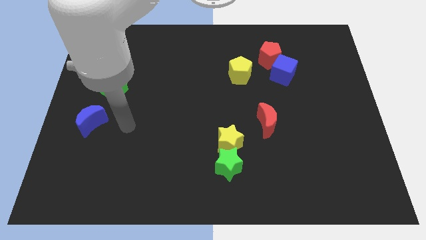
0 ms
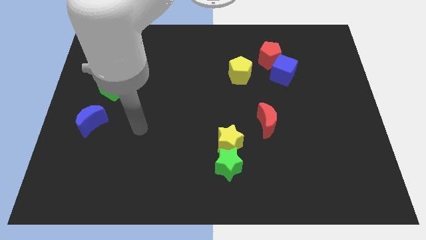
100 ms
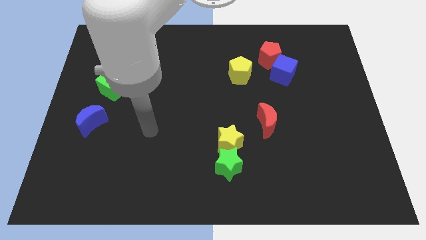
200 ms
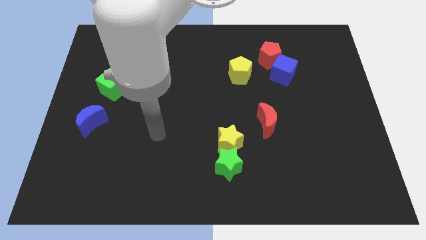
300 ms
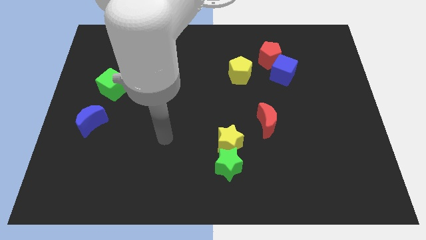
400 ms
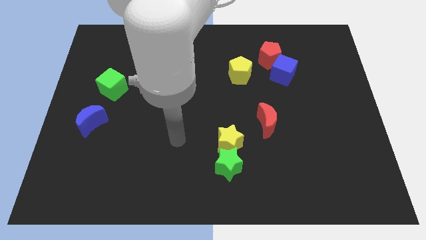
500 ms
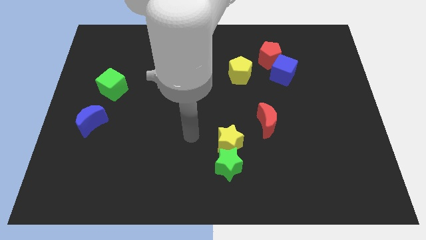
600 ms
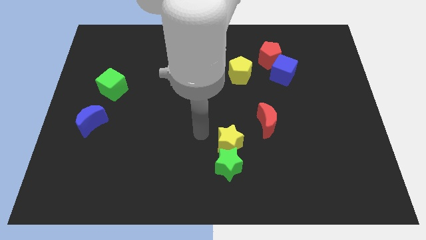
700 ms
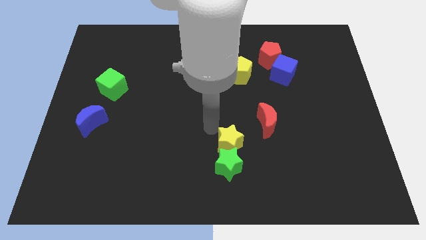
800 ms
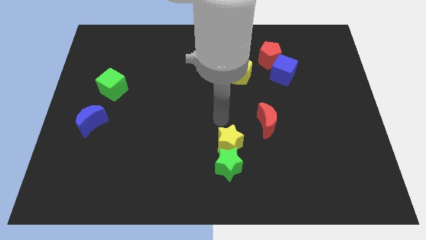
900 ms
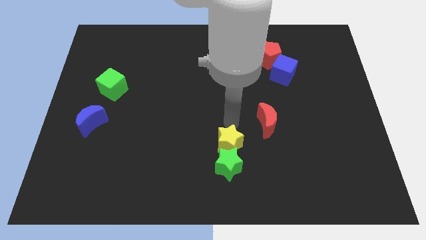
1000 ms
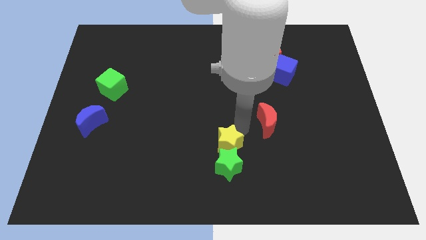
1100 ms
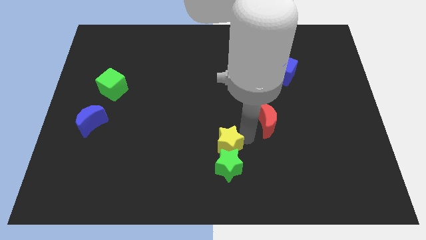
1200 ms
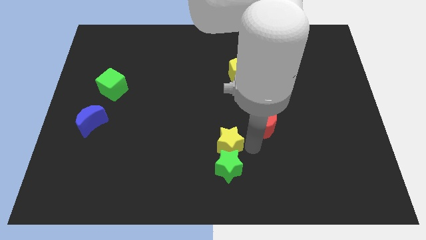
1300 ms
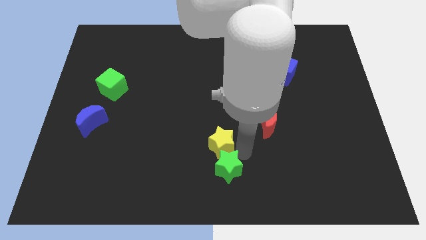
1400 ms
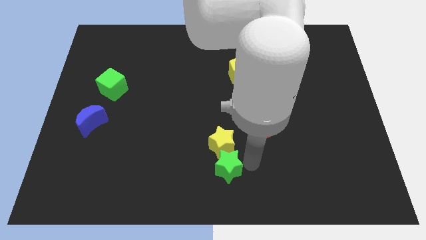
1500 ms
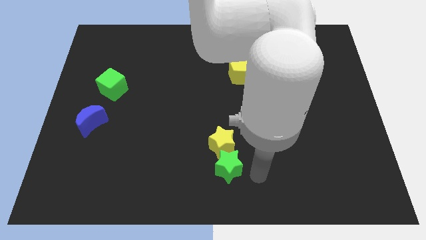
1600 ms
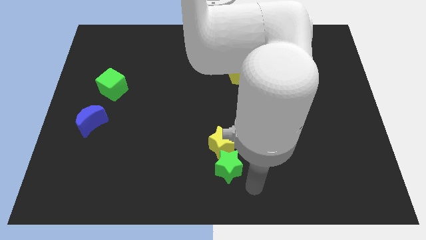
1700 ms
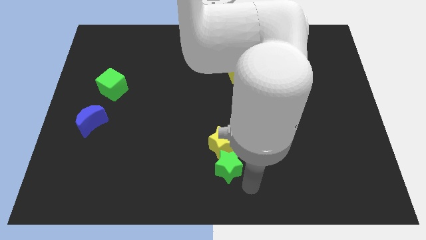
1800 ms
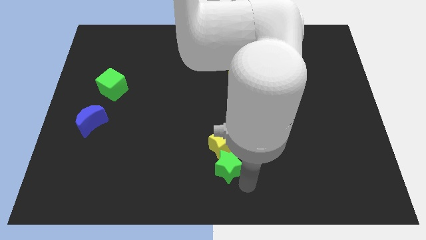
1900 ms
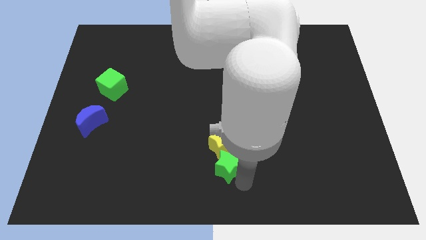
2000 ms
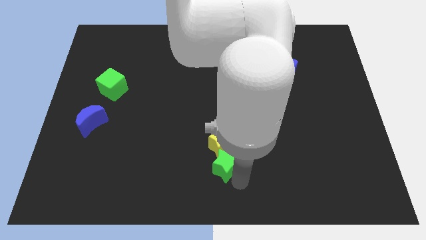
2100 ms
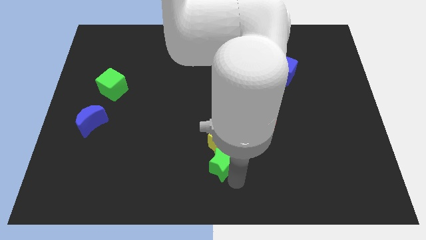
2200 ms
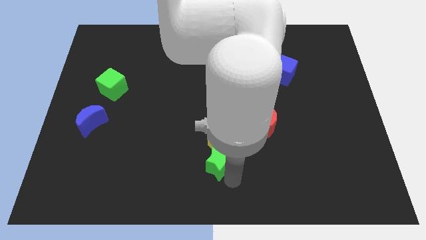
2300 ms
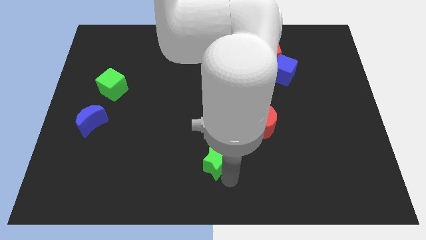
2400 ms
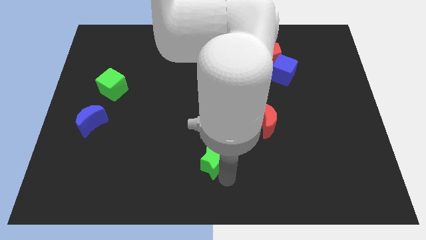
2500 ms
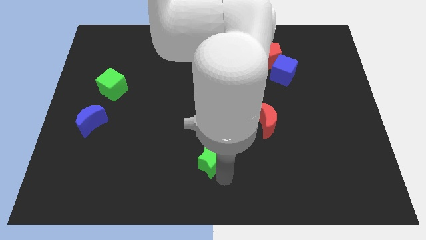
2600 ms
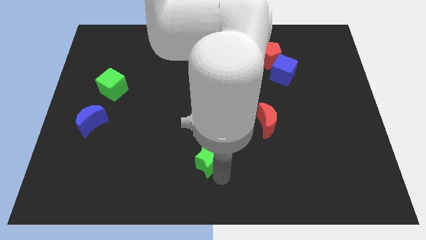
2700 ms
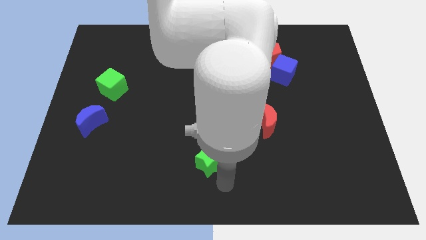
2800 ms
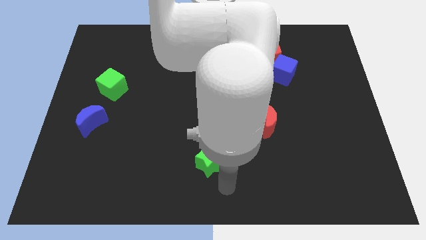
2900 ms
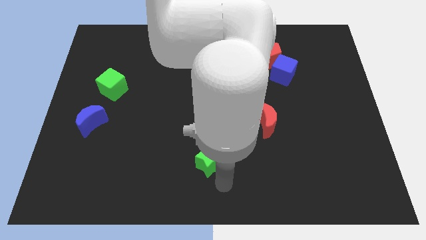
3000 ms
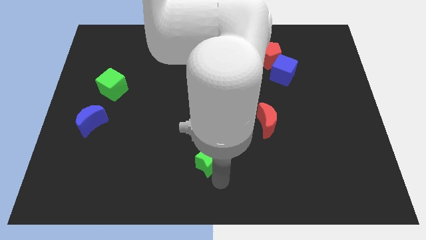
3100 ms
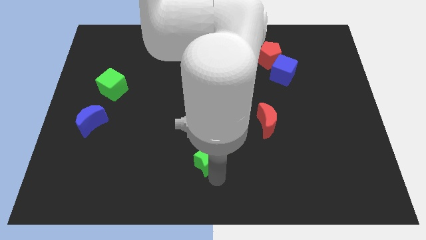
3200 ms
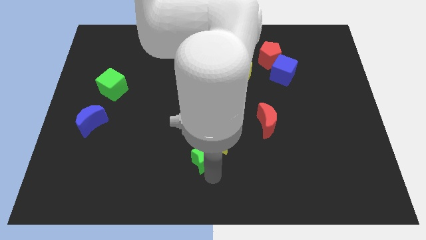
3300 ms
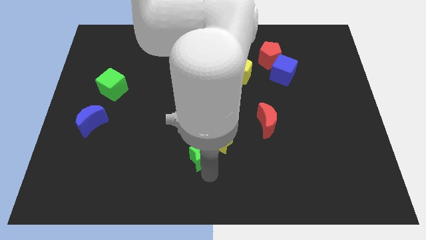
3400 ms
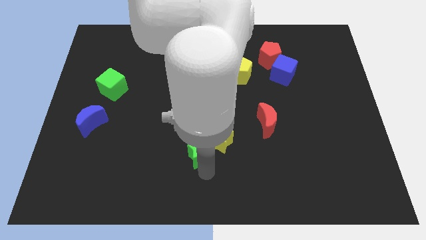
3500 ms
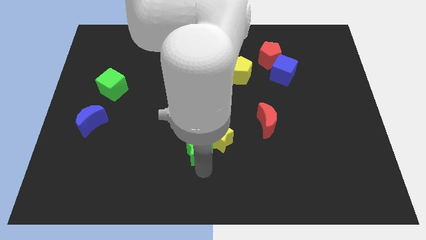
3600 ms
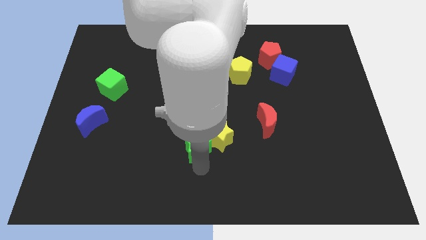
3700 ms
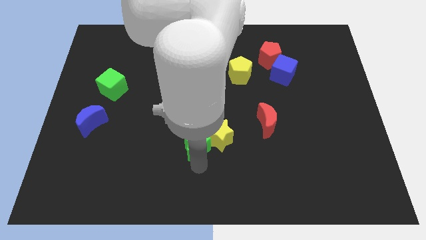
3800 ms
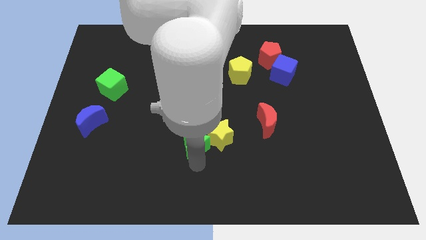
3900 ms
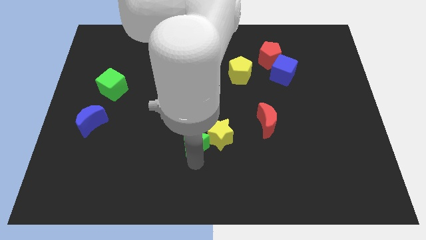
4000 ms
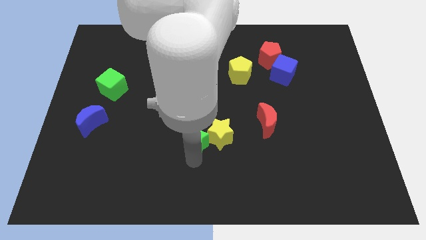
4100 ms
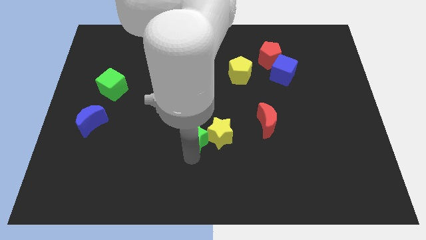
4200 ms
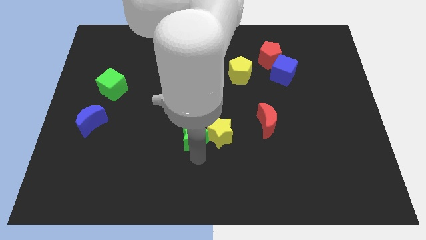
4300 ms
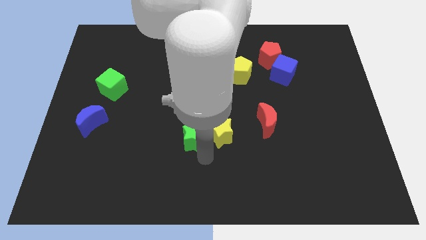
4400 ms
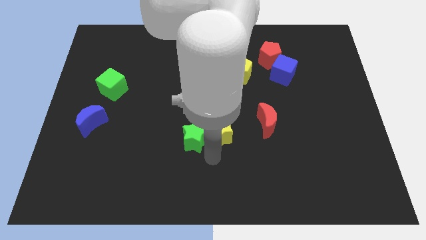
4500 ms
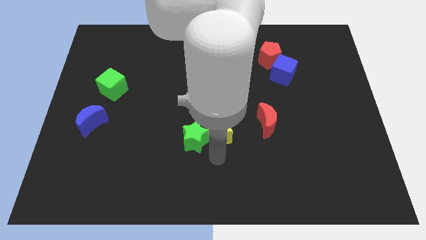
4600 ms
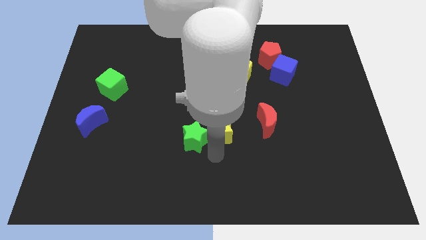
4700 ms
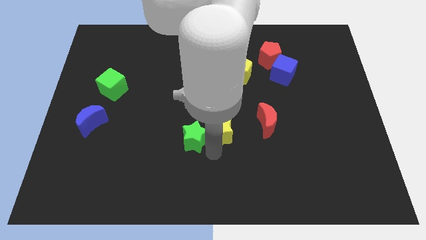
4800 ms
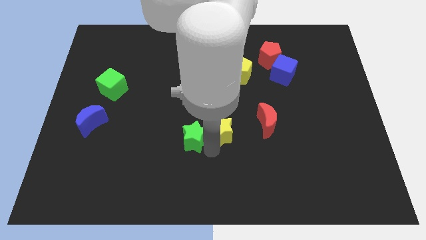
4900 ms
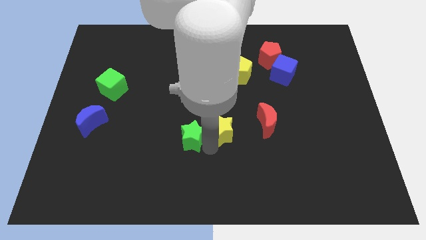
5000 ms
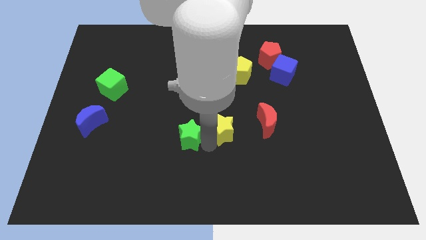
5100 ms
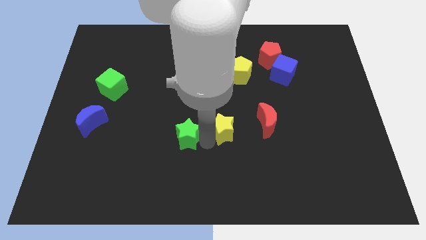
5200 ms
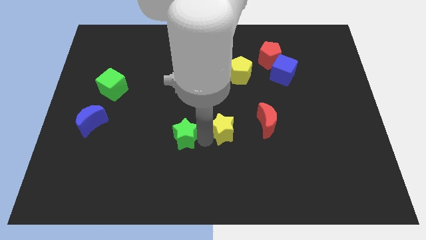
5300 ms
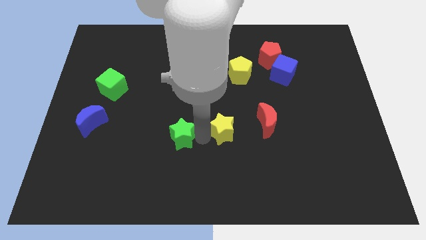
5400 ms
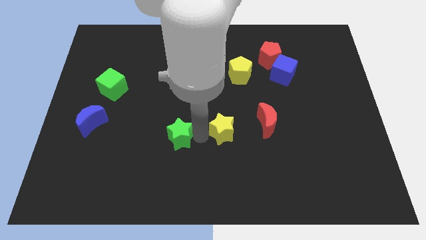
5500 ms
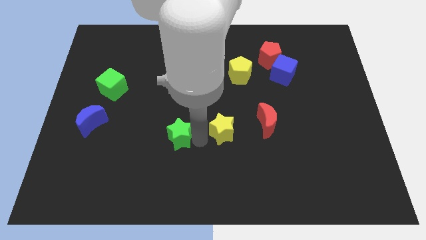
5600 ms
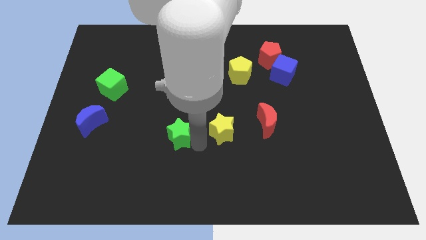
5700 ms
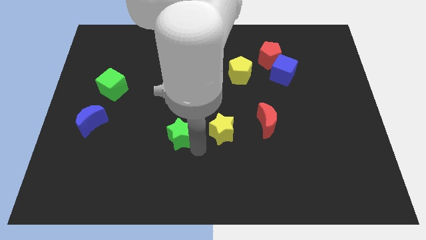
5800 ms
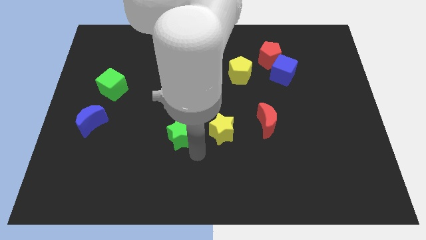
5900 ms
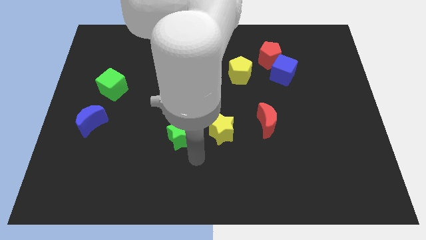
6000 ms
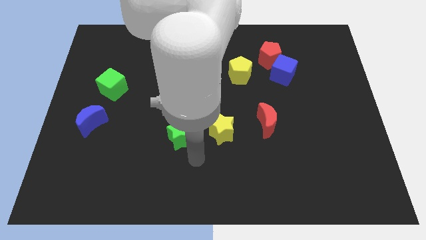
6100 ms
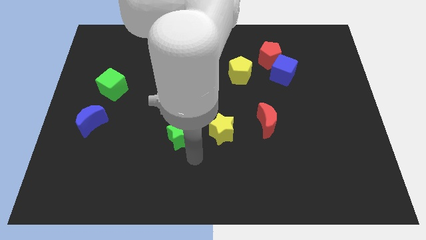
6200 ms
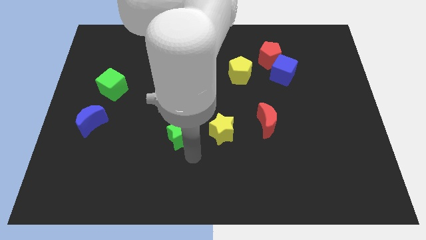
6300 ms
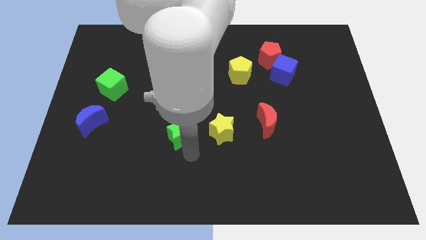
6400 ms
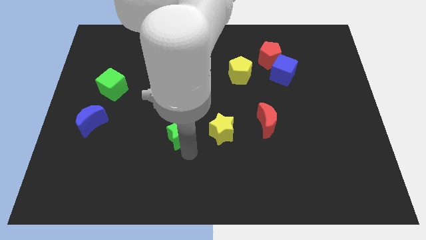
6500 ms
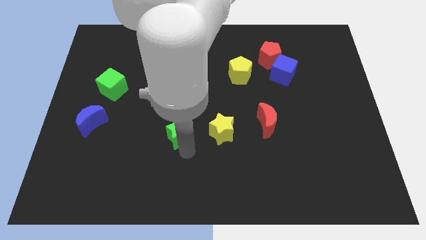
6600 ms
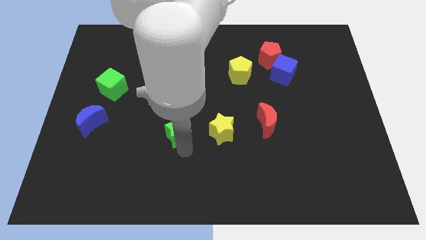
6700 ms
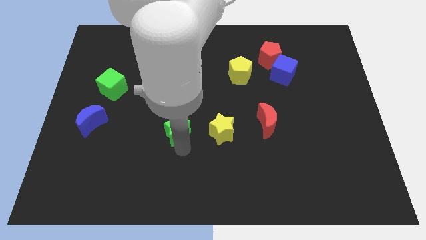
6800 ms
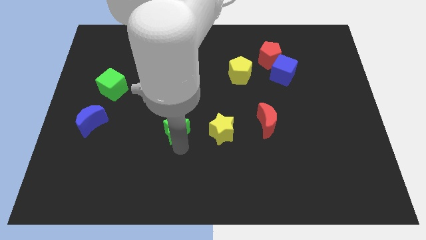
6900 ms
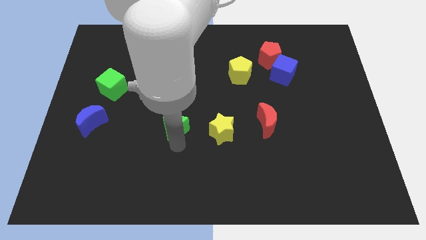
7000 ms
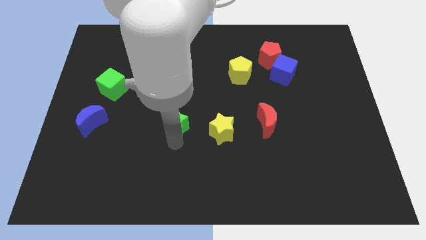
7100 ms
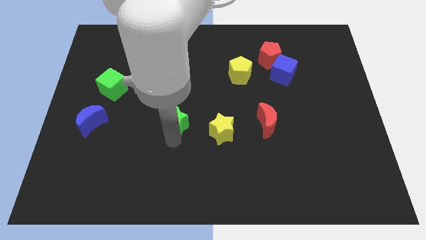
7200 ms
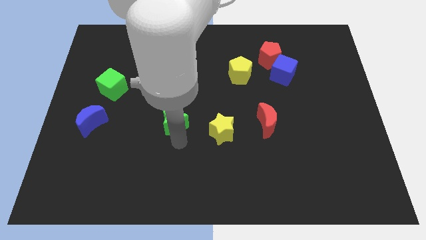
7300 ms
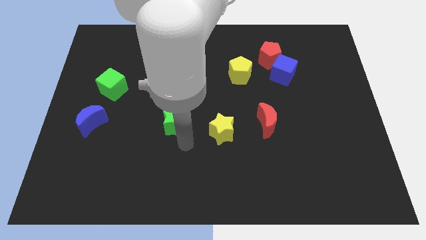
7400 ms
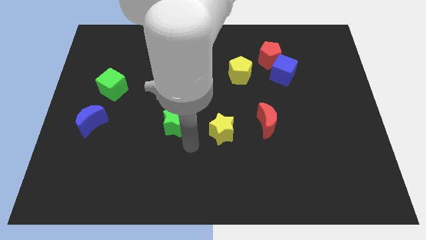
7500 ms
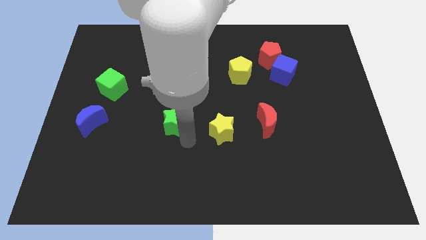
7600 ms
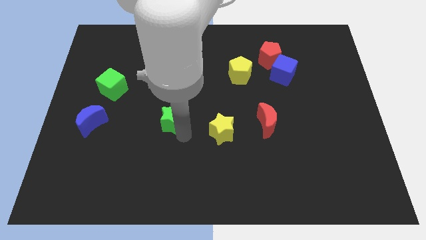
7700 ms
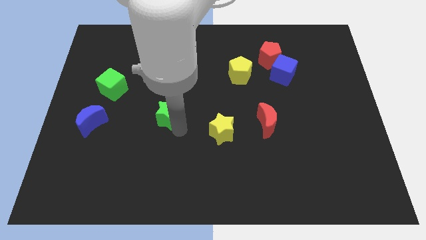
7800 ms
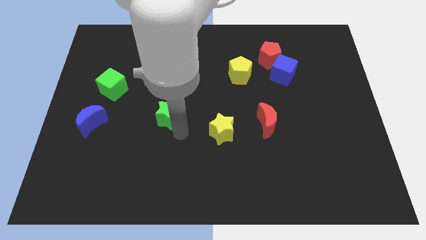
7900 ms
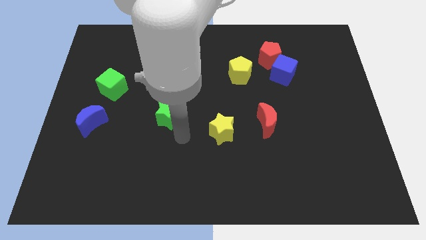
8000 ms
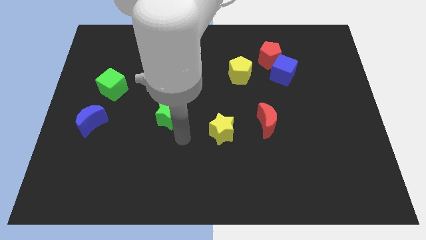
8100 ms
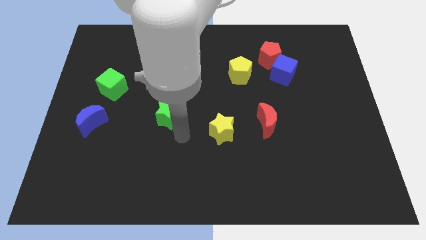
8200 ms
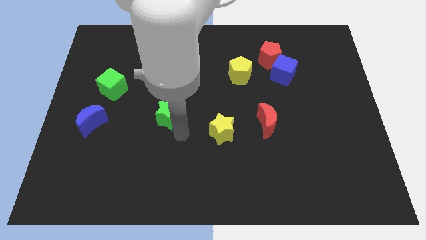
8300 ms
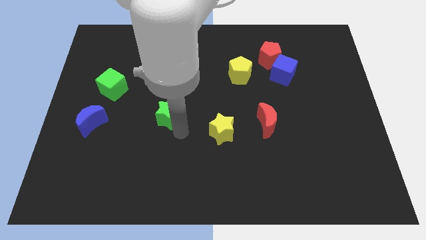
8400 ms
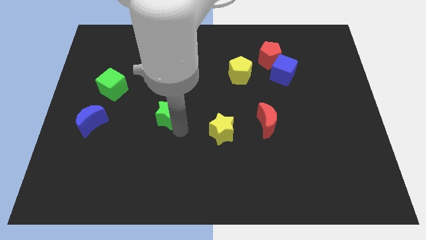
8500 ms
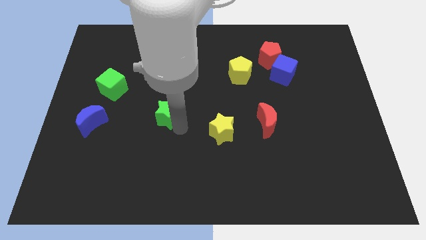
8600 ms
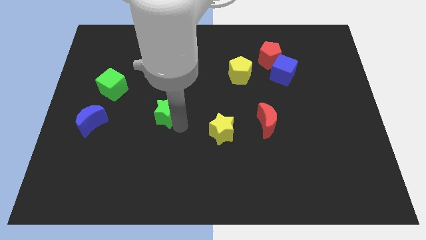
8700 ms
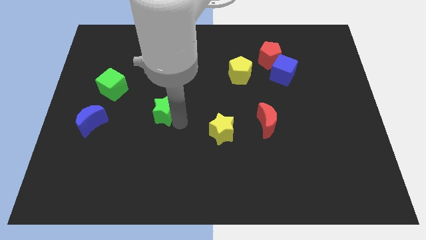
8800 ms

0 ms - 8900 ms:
move the green star upwards and to the left diagonally
